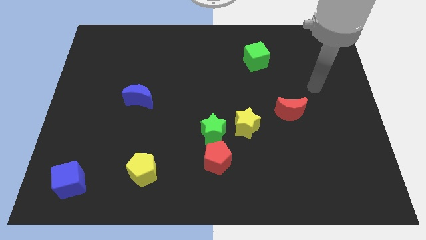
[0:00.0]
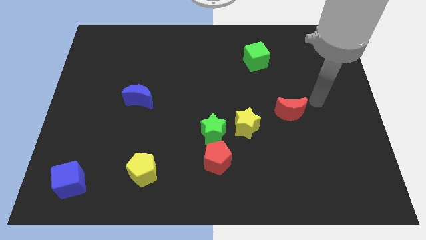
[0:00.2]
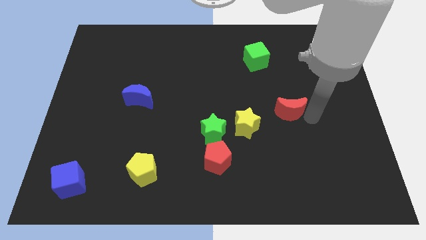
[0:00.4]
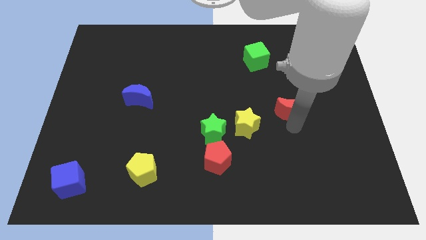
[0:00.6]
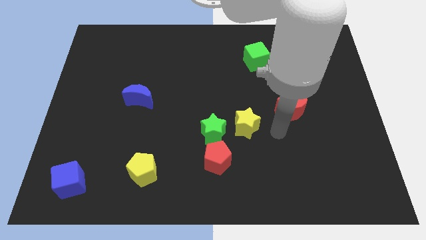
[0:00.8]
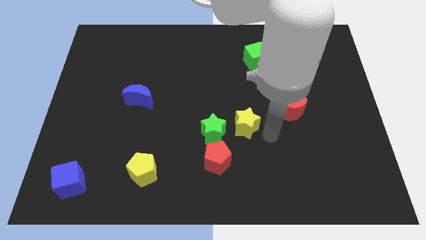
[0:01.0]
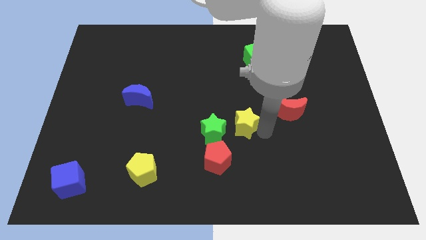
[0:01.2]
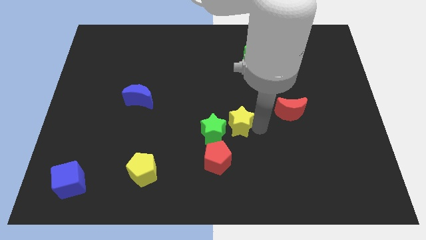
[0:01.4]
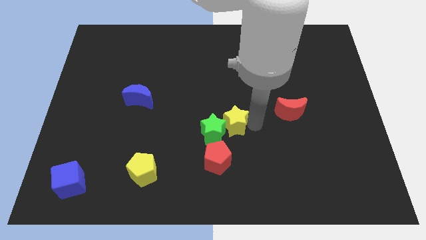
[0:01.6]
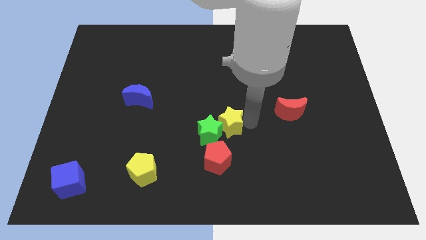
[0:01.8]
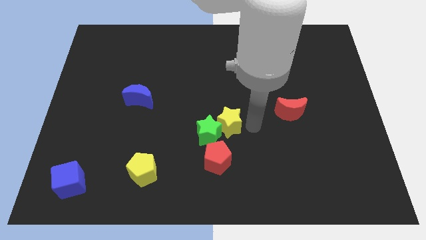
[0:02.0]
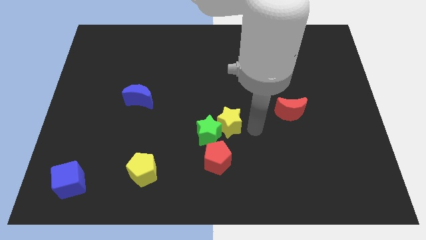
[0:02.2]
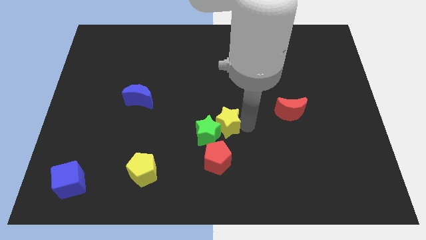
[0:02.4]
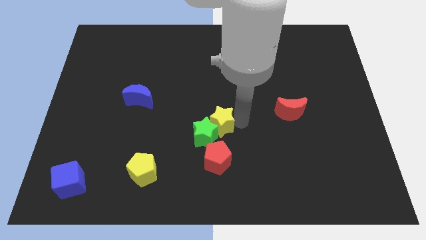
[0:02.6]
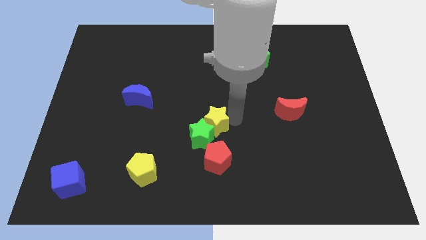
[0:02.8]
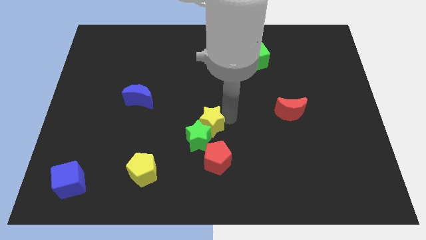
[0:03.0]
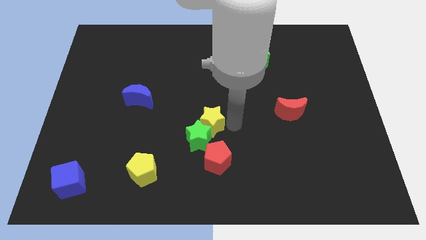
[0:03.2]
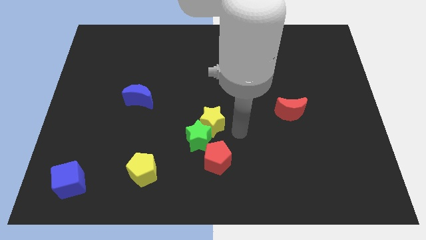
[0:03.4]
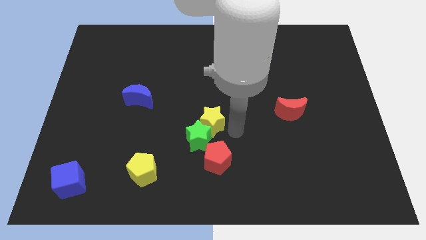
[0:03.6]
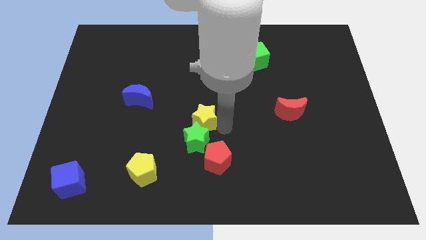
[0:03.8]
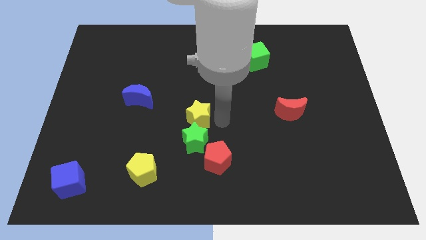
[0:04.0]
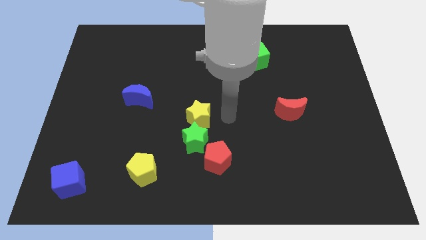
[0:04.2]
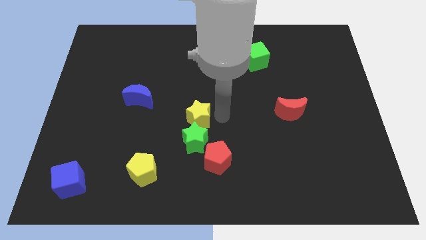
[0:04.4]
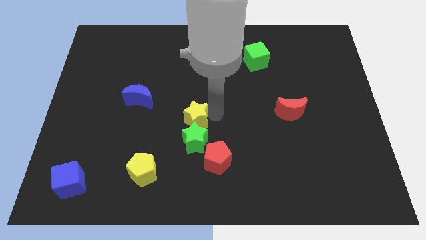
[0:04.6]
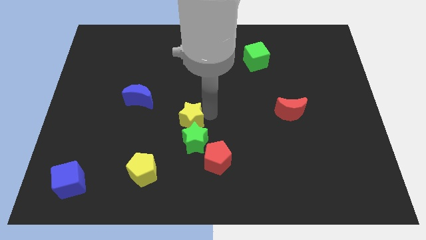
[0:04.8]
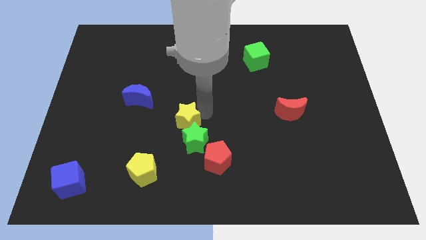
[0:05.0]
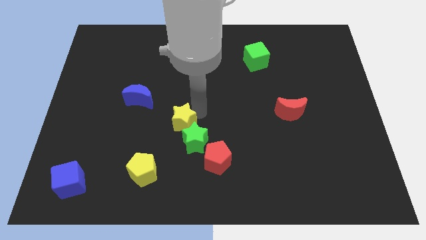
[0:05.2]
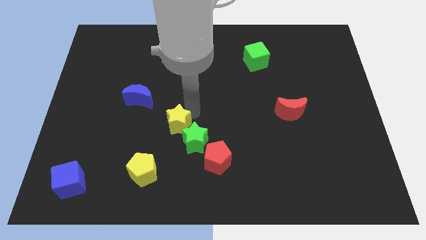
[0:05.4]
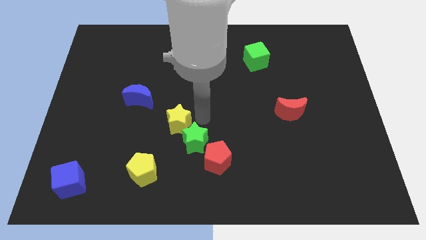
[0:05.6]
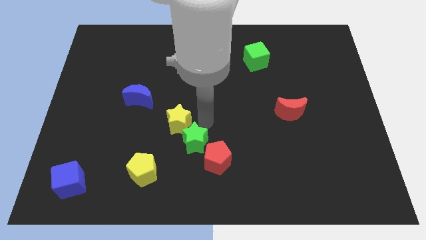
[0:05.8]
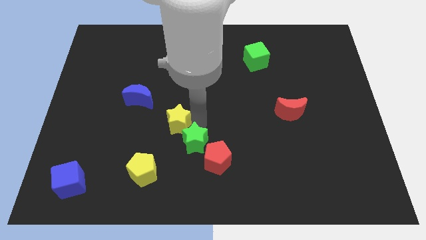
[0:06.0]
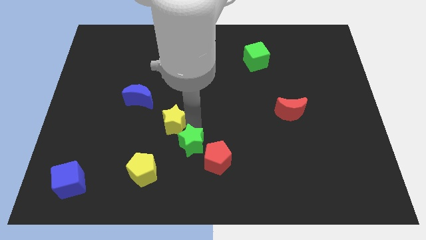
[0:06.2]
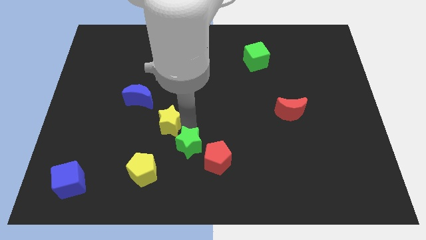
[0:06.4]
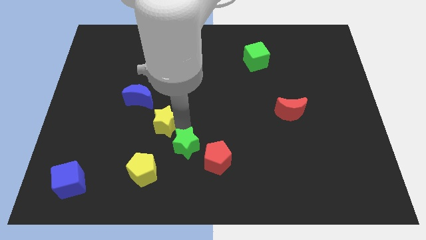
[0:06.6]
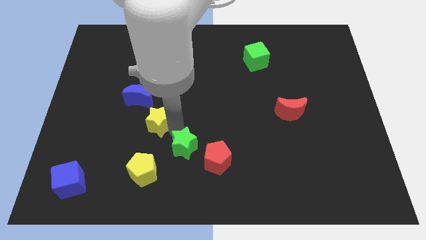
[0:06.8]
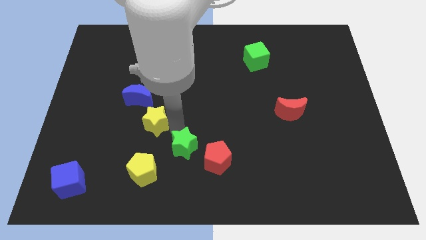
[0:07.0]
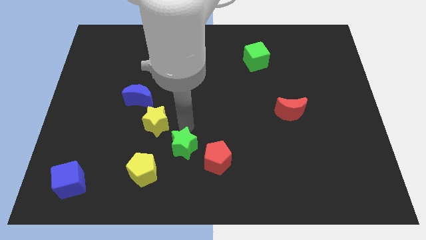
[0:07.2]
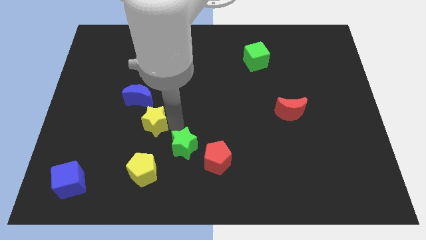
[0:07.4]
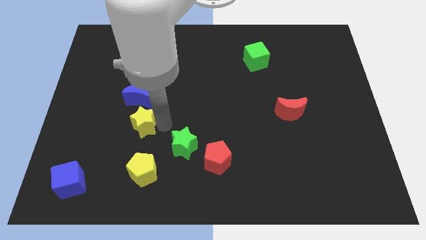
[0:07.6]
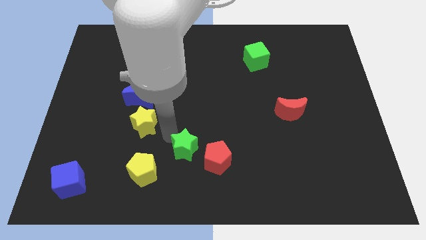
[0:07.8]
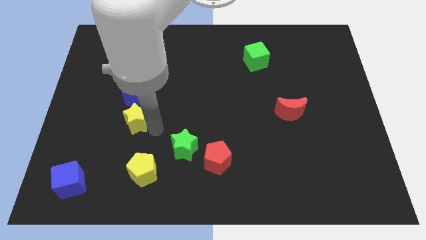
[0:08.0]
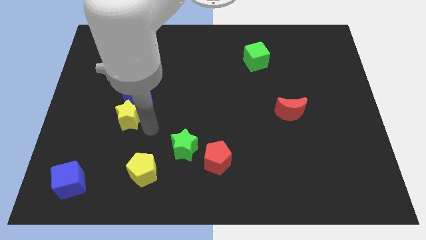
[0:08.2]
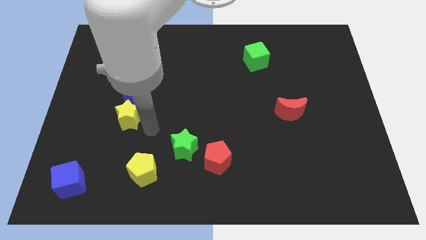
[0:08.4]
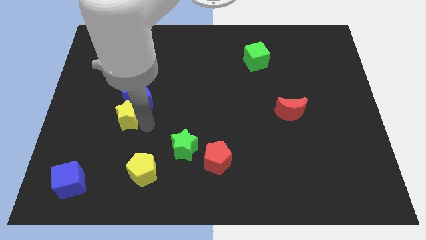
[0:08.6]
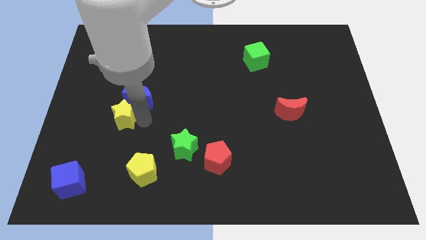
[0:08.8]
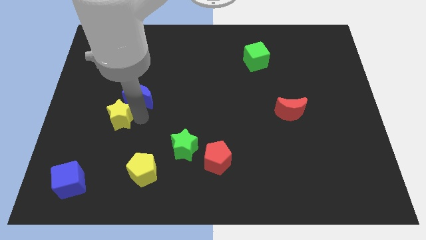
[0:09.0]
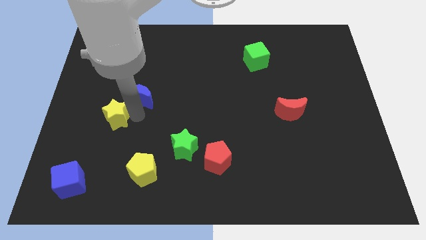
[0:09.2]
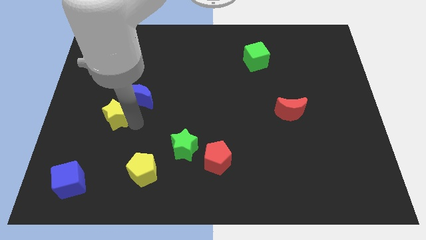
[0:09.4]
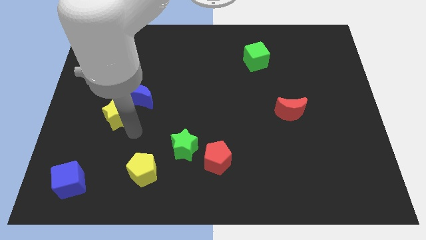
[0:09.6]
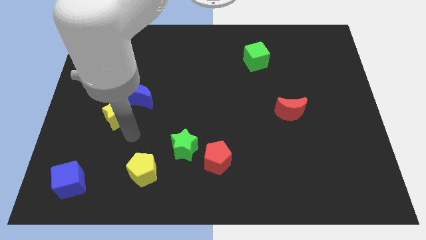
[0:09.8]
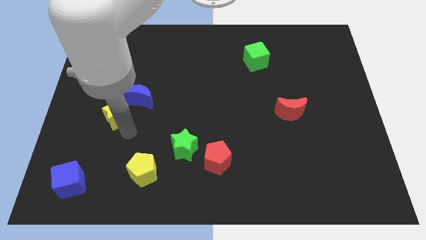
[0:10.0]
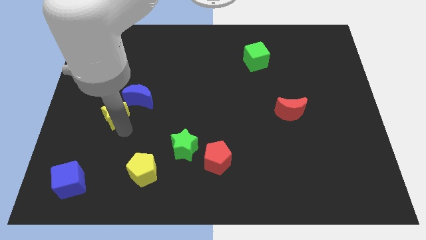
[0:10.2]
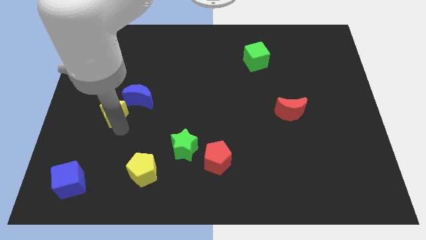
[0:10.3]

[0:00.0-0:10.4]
move the yellow star to the left side of the blue moon

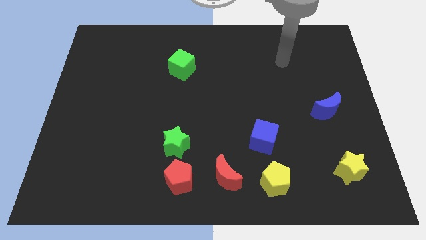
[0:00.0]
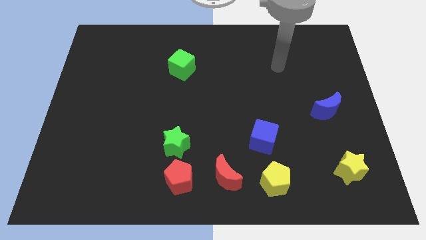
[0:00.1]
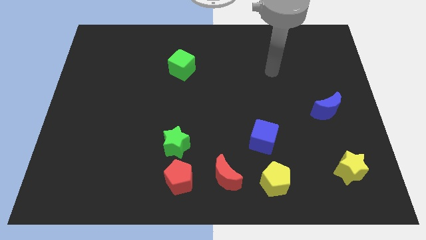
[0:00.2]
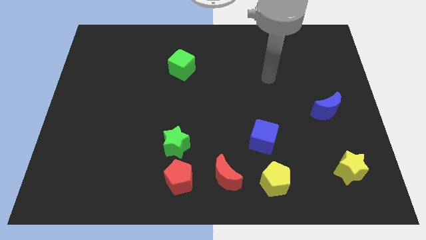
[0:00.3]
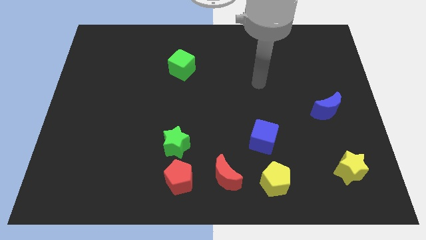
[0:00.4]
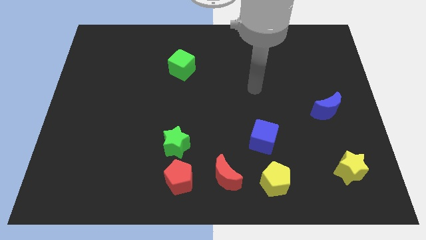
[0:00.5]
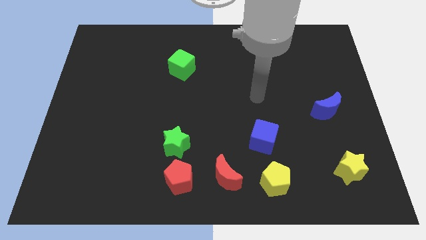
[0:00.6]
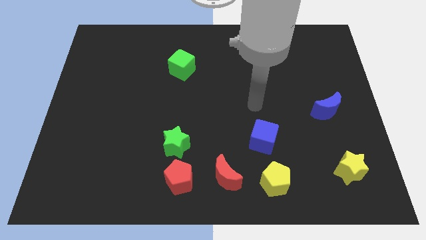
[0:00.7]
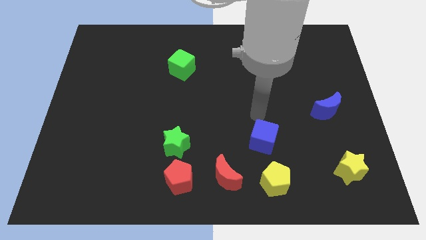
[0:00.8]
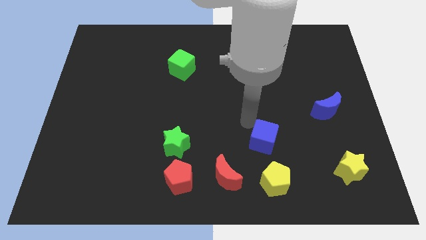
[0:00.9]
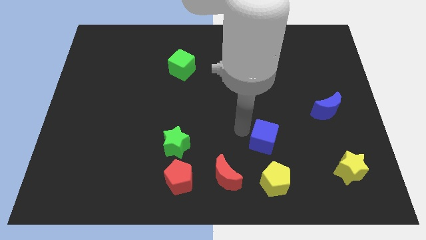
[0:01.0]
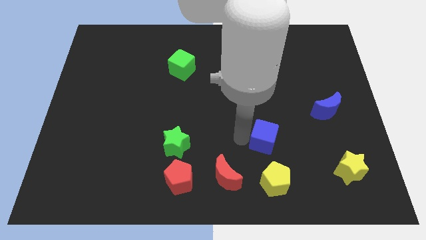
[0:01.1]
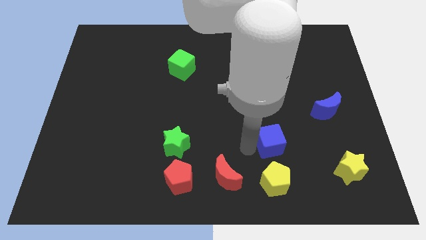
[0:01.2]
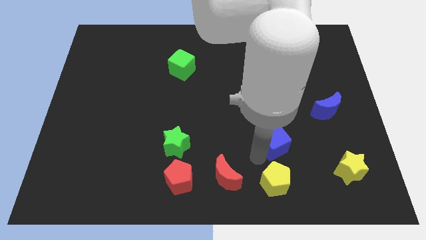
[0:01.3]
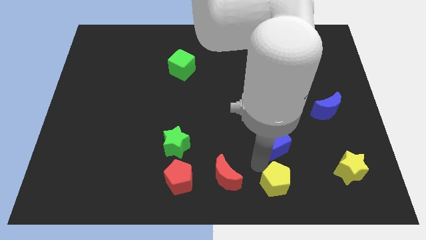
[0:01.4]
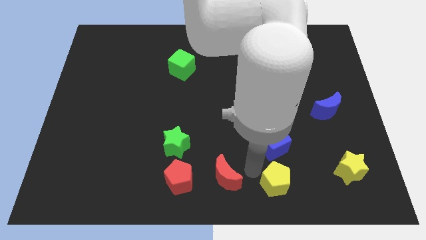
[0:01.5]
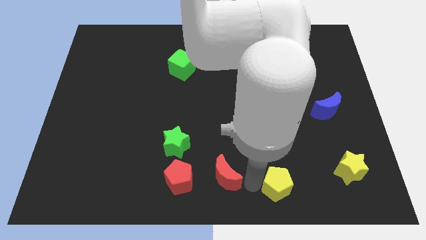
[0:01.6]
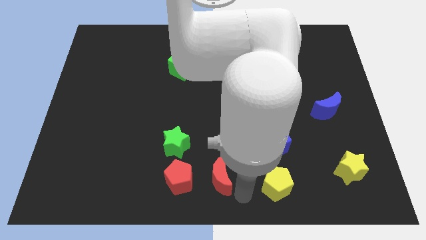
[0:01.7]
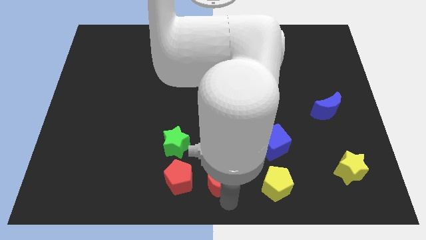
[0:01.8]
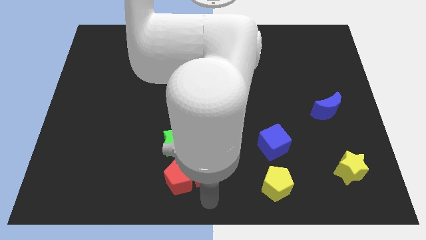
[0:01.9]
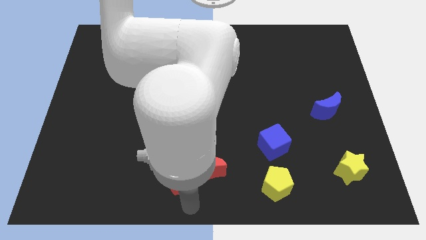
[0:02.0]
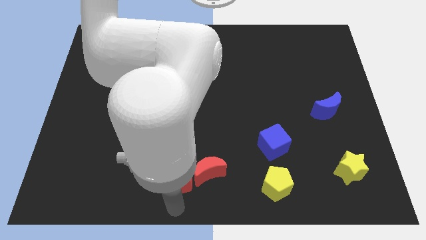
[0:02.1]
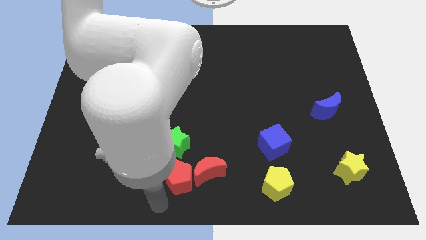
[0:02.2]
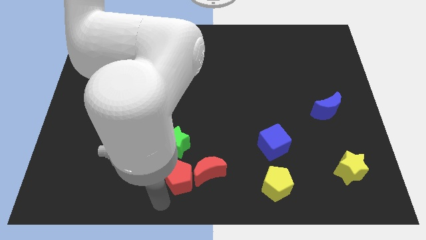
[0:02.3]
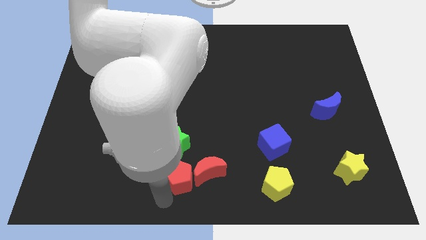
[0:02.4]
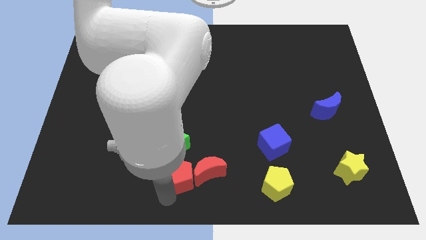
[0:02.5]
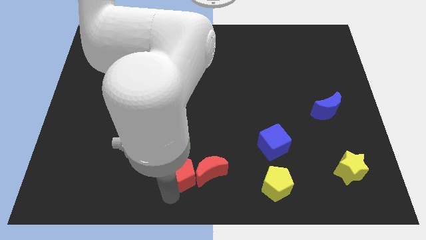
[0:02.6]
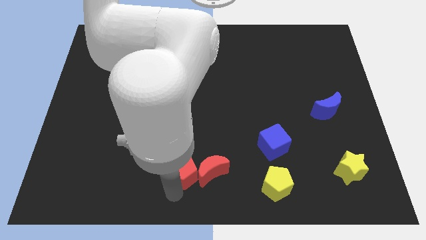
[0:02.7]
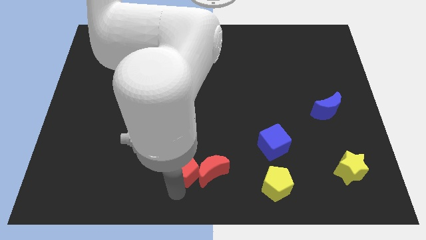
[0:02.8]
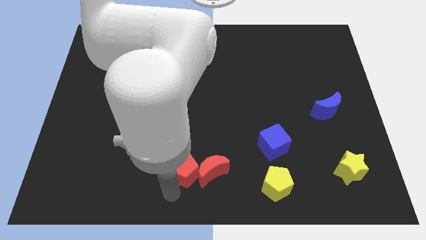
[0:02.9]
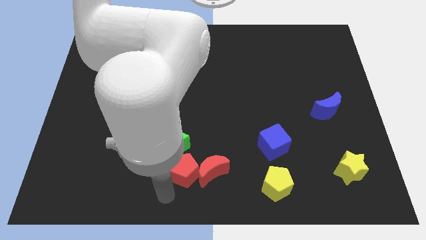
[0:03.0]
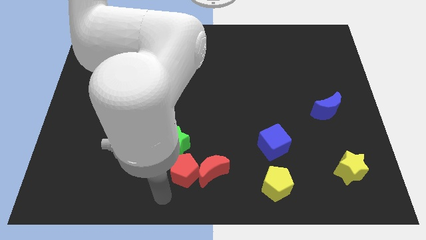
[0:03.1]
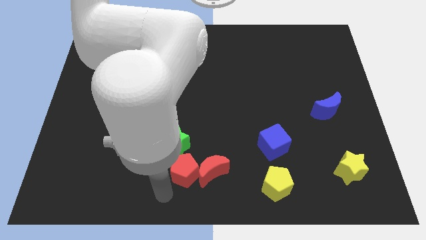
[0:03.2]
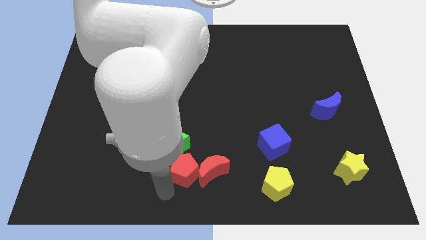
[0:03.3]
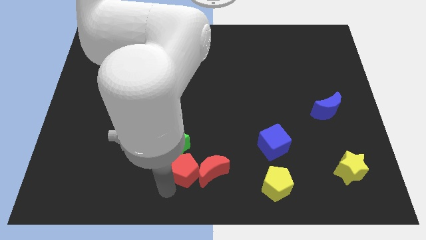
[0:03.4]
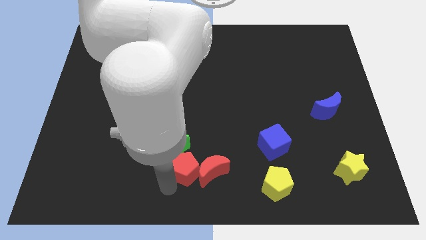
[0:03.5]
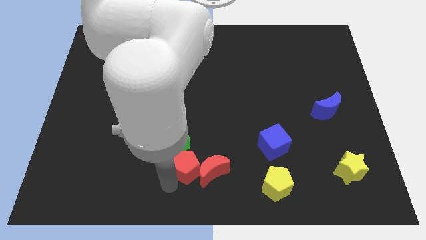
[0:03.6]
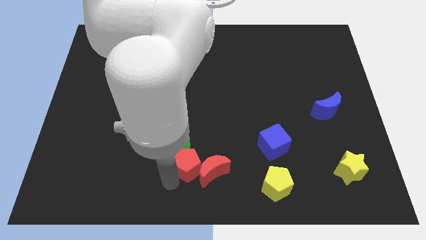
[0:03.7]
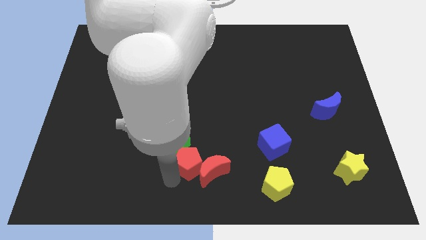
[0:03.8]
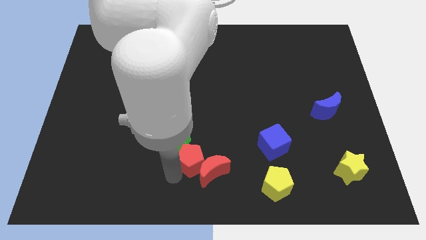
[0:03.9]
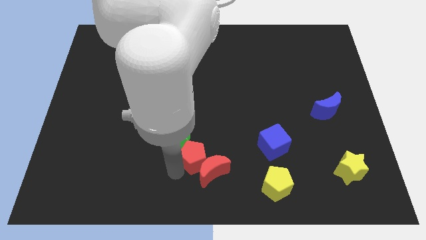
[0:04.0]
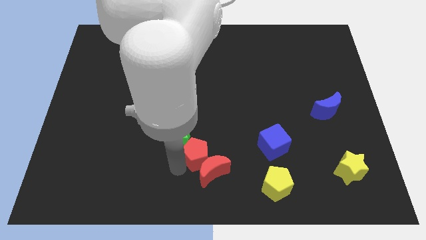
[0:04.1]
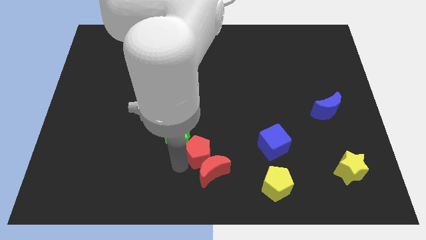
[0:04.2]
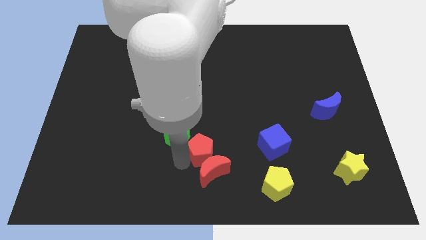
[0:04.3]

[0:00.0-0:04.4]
put the red pentagon to the left side of the blue cube
